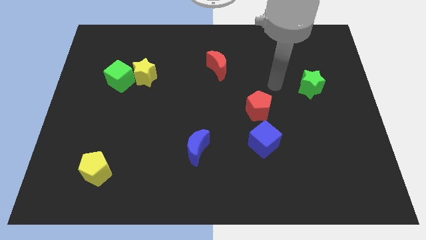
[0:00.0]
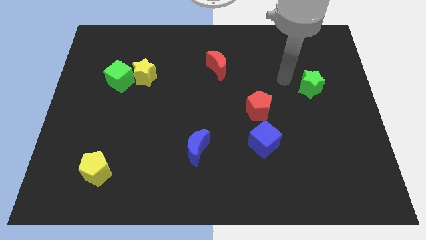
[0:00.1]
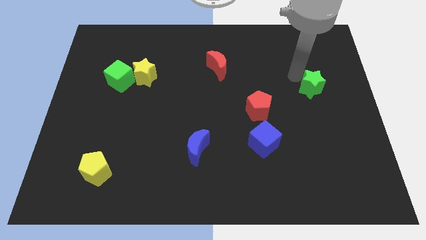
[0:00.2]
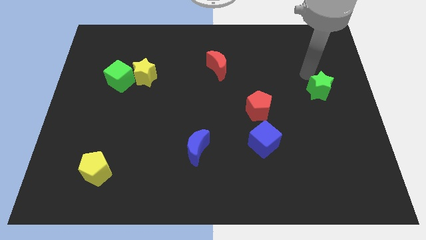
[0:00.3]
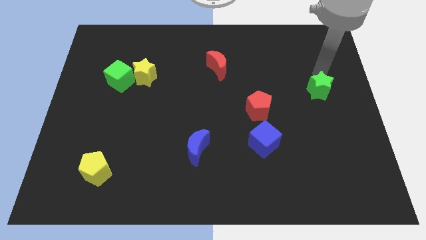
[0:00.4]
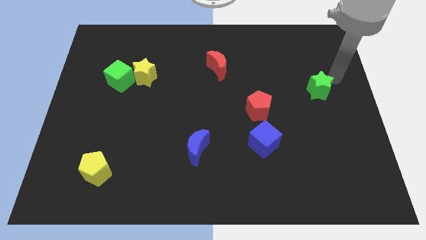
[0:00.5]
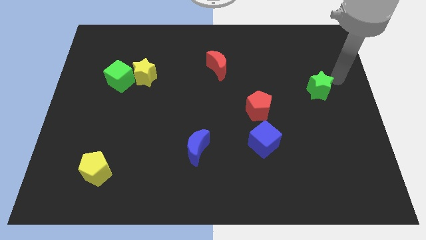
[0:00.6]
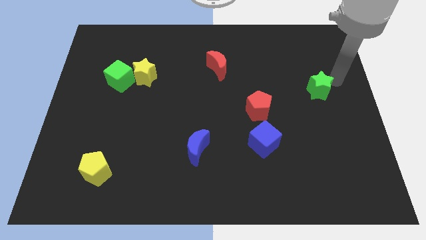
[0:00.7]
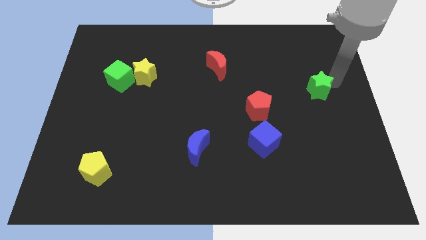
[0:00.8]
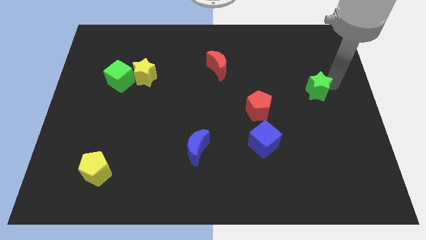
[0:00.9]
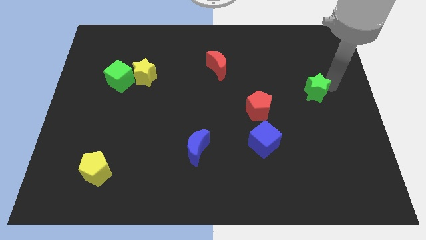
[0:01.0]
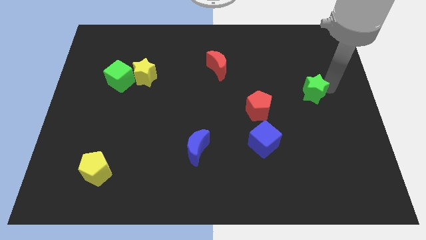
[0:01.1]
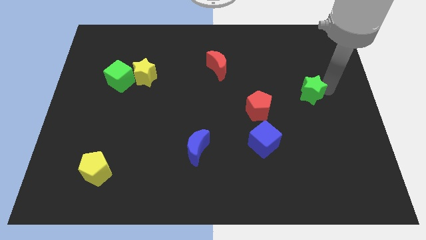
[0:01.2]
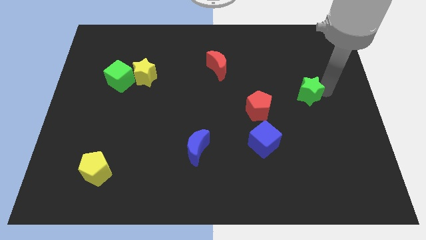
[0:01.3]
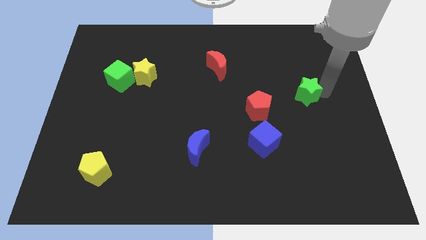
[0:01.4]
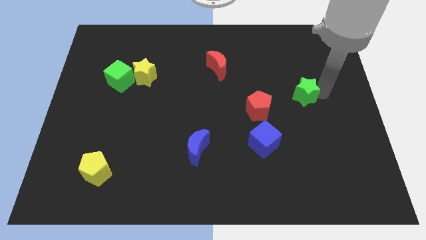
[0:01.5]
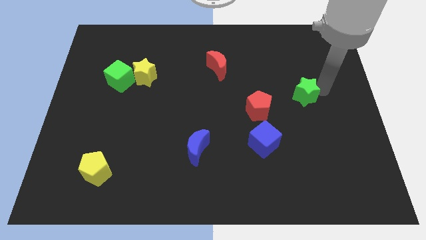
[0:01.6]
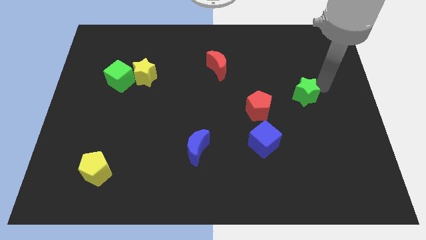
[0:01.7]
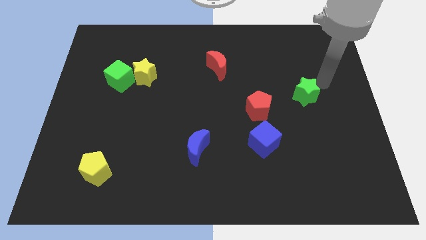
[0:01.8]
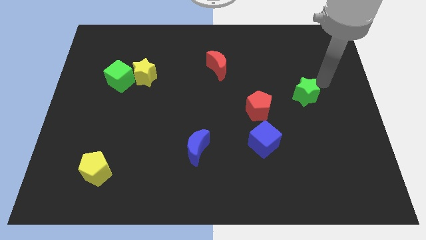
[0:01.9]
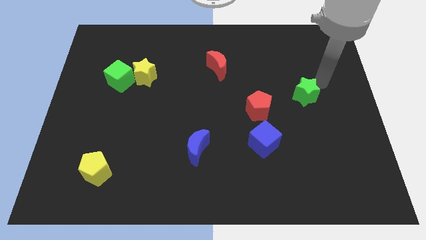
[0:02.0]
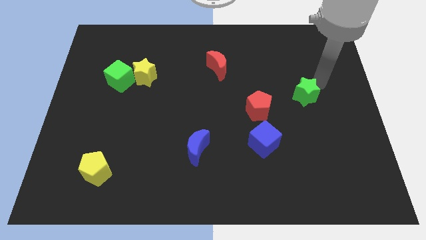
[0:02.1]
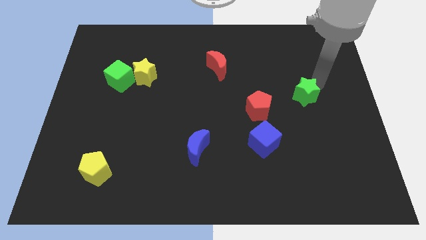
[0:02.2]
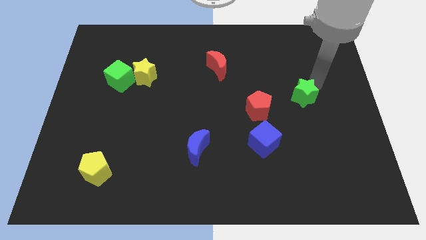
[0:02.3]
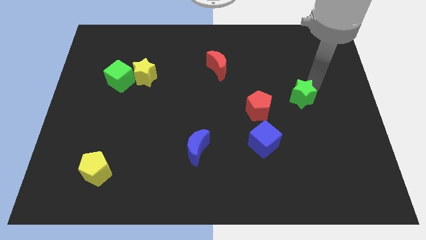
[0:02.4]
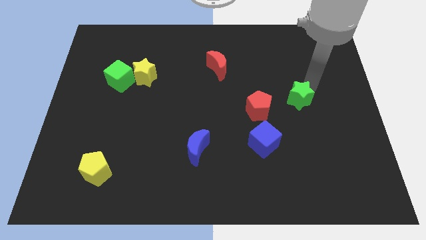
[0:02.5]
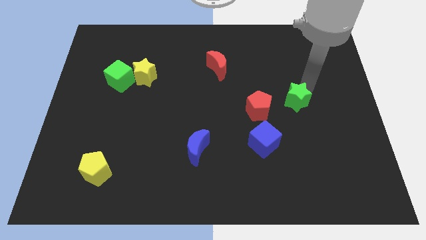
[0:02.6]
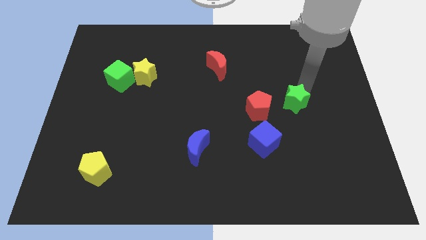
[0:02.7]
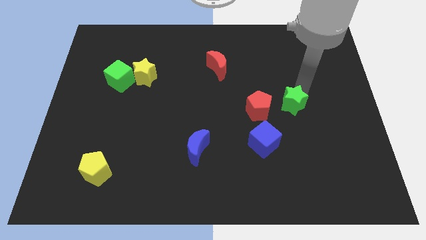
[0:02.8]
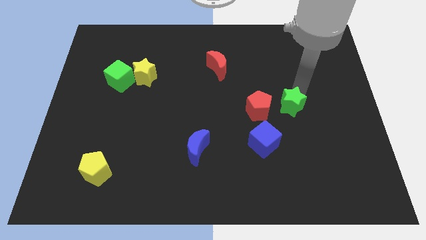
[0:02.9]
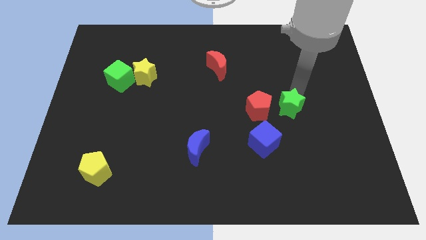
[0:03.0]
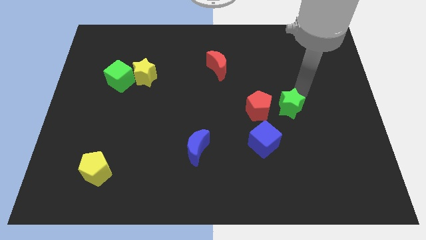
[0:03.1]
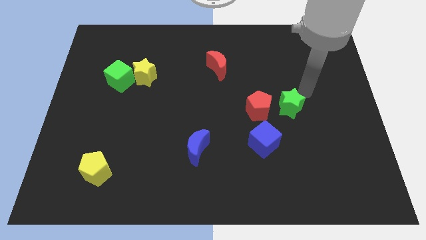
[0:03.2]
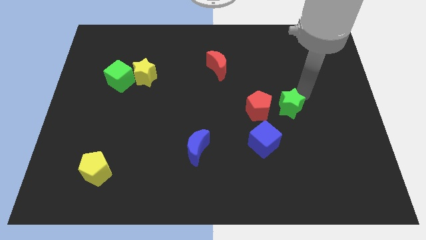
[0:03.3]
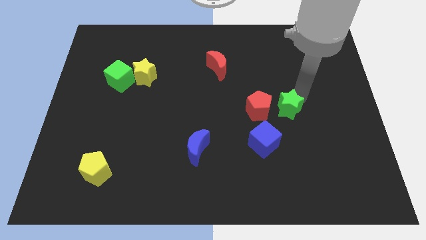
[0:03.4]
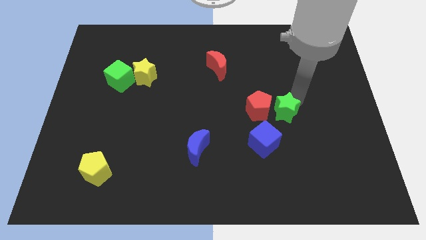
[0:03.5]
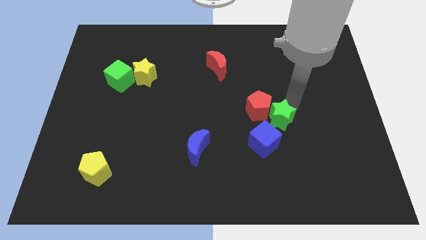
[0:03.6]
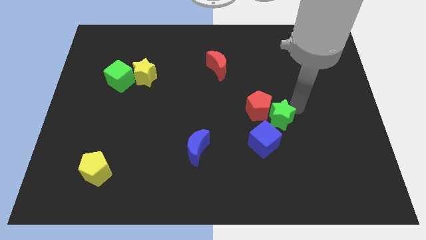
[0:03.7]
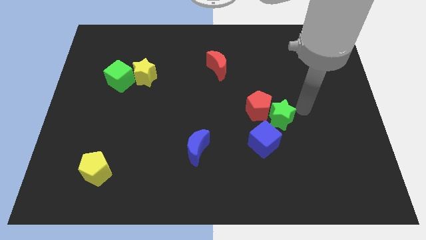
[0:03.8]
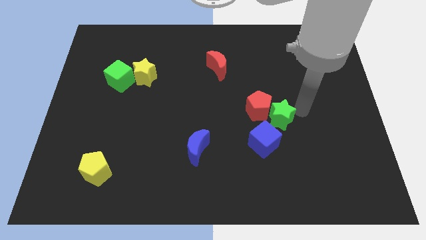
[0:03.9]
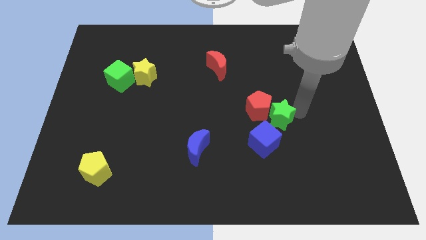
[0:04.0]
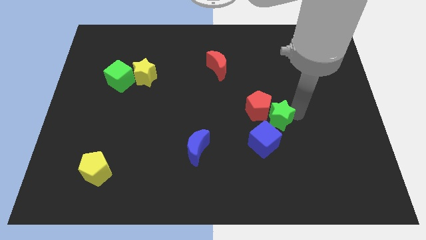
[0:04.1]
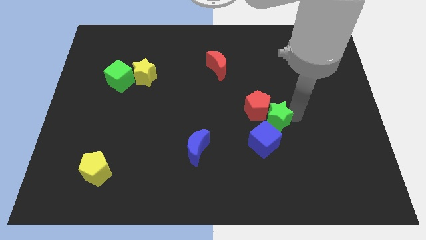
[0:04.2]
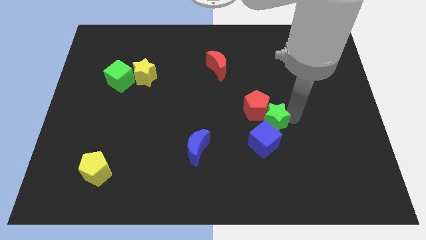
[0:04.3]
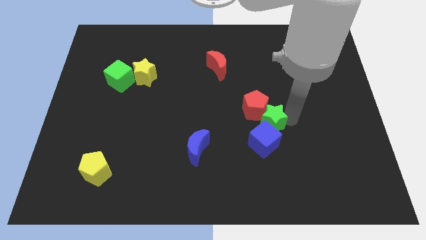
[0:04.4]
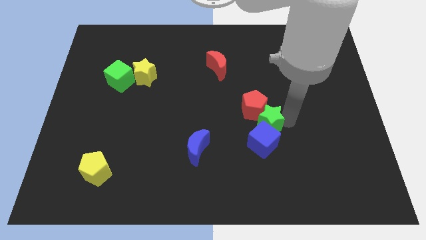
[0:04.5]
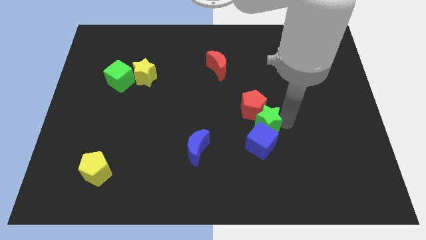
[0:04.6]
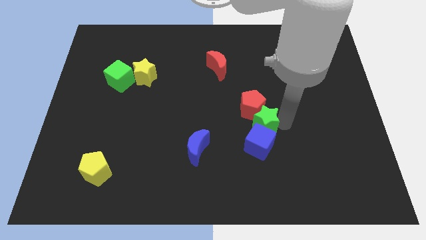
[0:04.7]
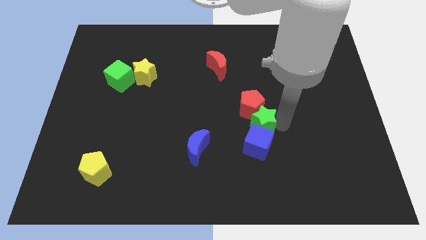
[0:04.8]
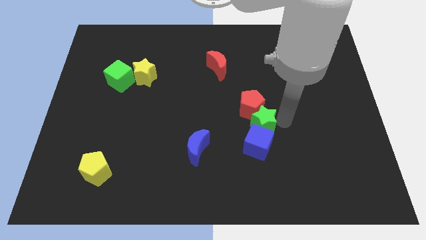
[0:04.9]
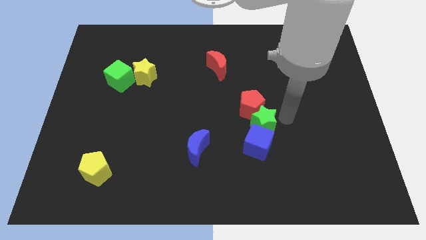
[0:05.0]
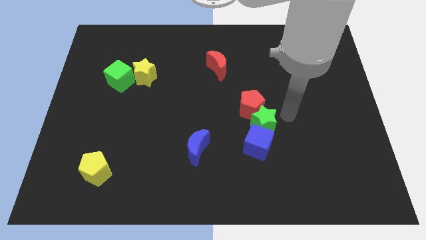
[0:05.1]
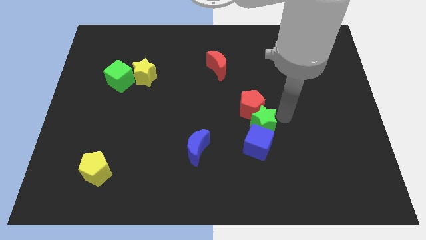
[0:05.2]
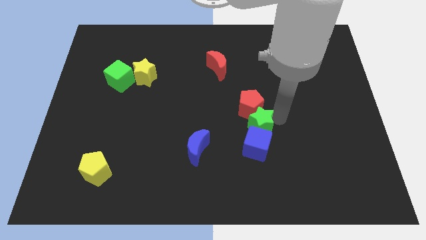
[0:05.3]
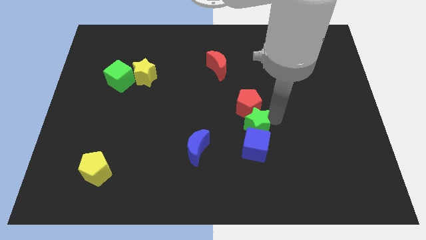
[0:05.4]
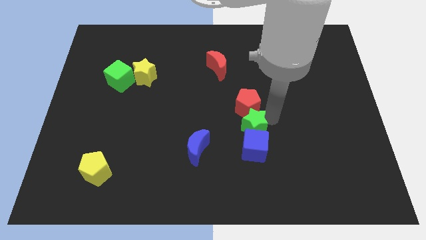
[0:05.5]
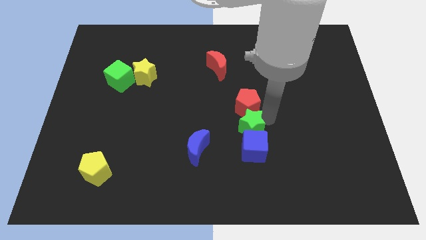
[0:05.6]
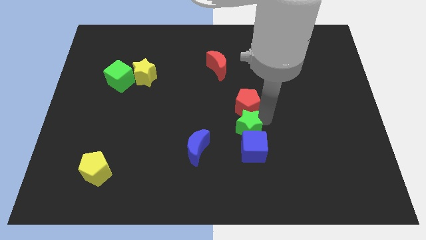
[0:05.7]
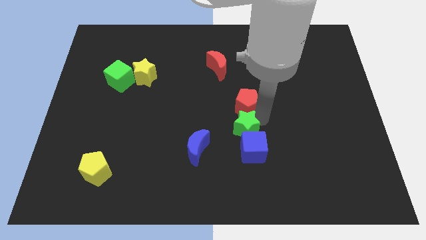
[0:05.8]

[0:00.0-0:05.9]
move the green star down and then to the left

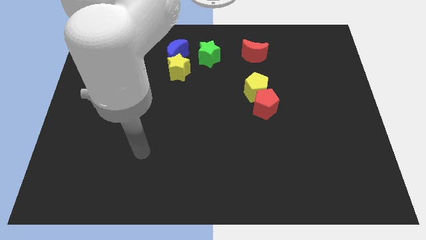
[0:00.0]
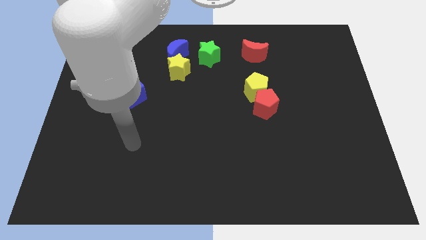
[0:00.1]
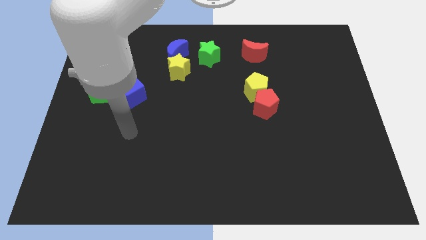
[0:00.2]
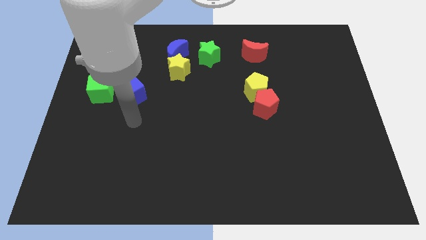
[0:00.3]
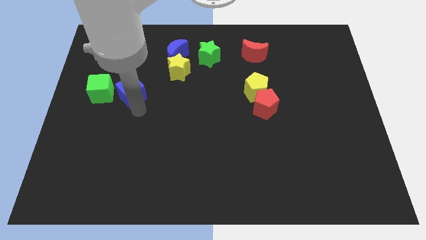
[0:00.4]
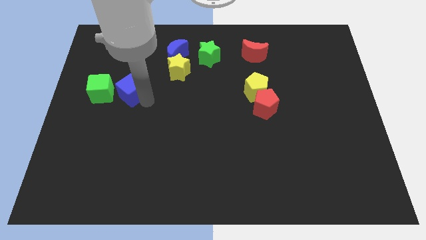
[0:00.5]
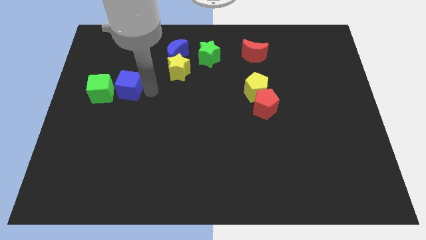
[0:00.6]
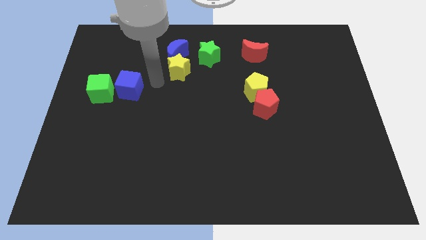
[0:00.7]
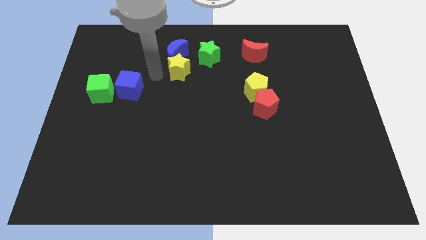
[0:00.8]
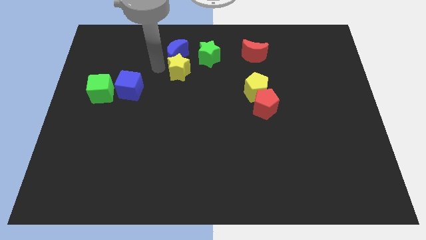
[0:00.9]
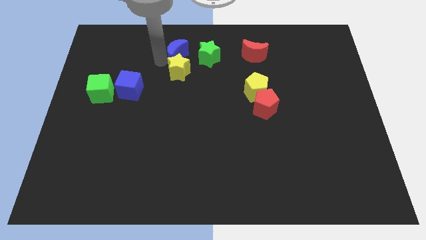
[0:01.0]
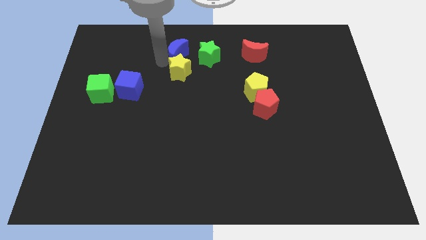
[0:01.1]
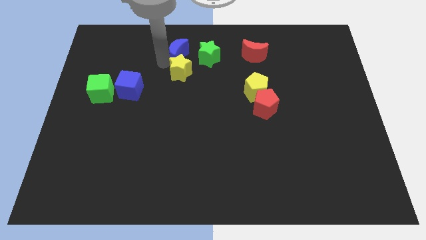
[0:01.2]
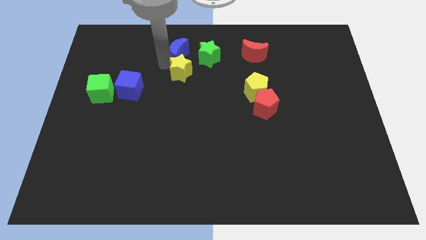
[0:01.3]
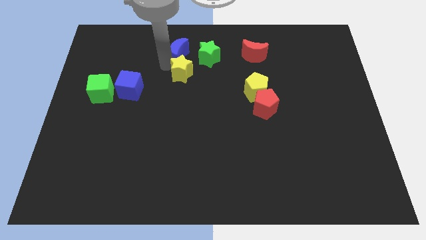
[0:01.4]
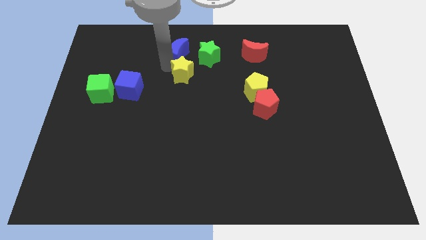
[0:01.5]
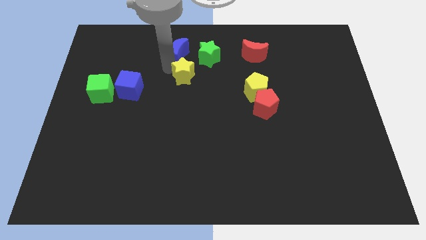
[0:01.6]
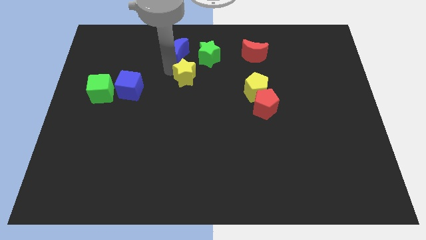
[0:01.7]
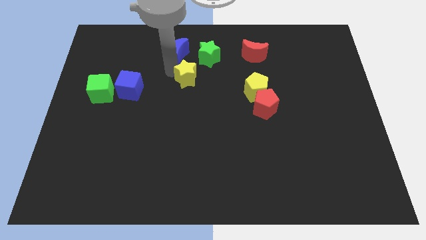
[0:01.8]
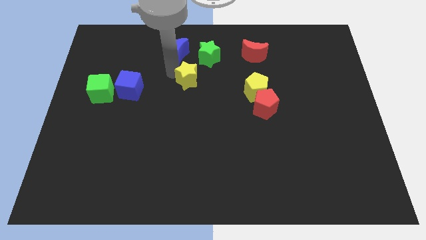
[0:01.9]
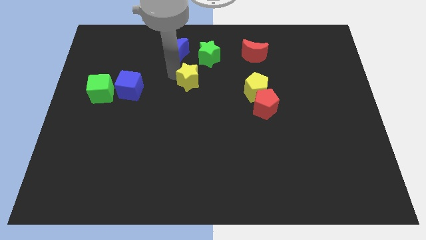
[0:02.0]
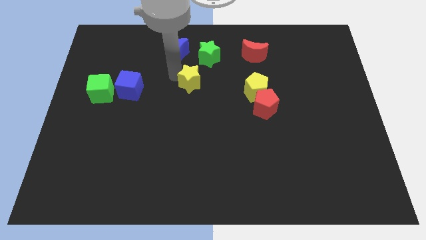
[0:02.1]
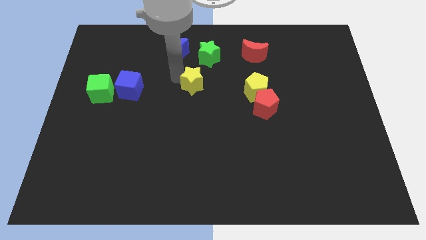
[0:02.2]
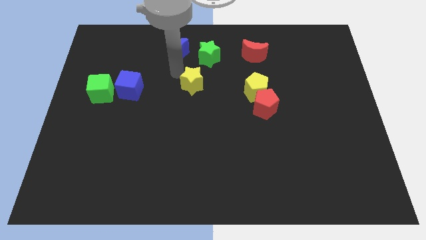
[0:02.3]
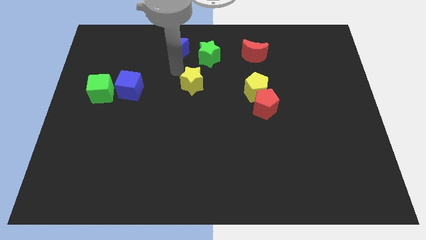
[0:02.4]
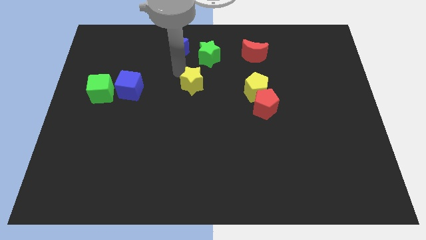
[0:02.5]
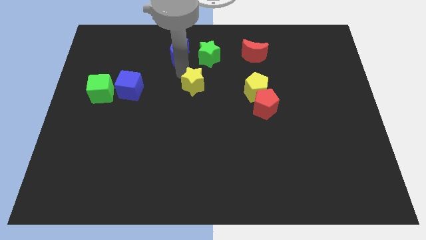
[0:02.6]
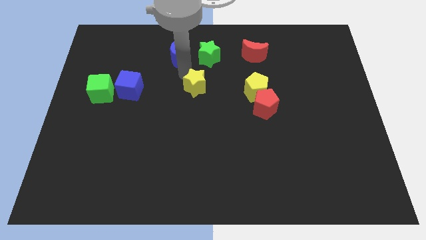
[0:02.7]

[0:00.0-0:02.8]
slide the yellow star diagonally down and right a bit
